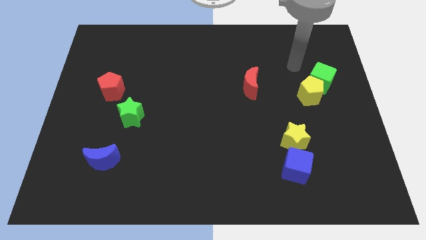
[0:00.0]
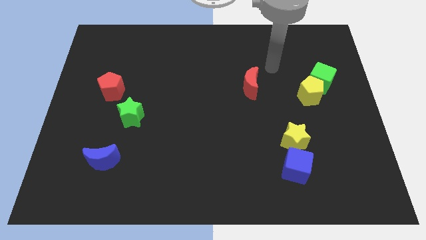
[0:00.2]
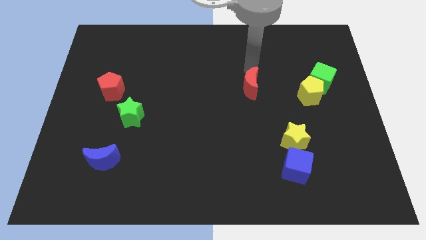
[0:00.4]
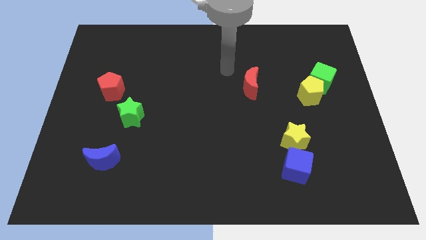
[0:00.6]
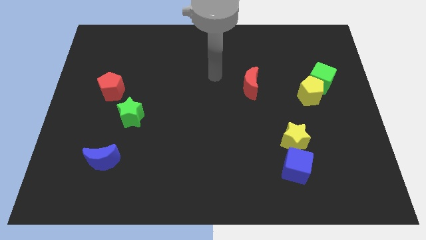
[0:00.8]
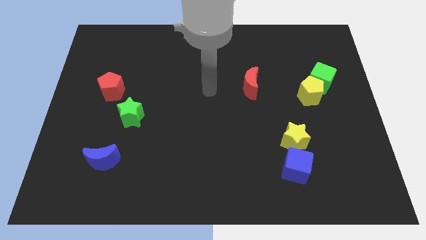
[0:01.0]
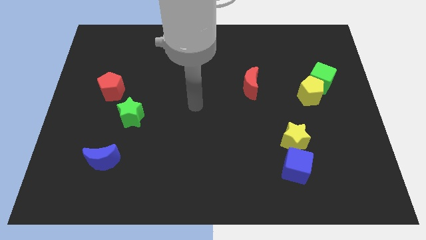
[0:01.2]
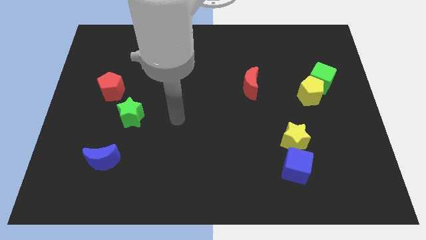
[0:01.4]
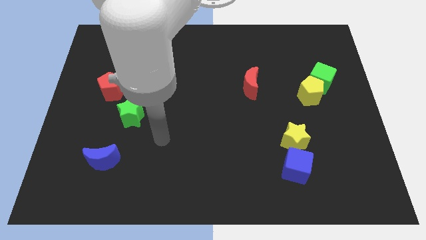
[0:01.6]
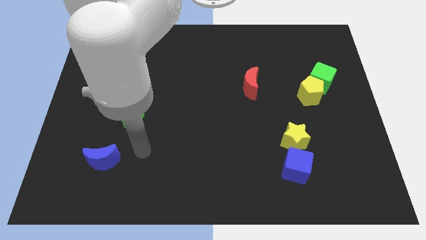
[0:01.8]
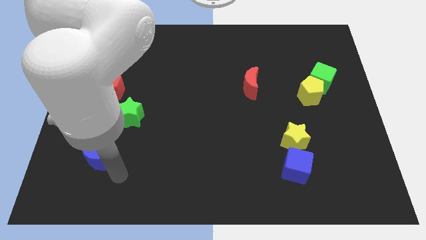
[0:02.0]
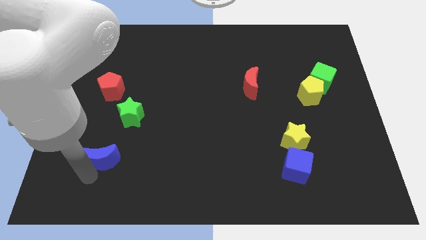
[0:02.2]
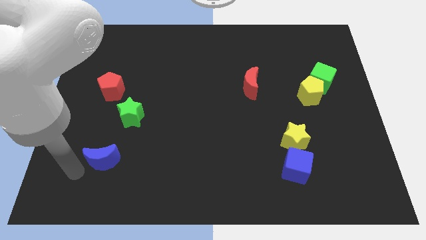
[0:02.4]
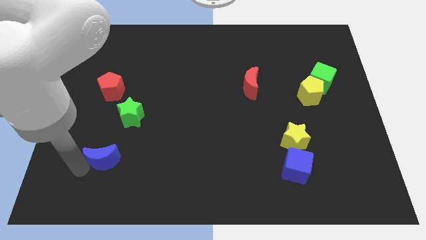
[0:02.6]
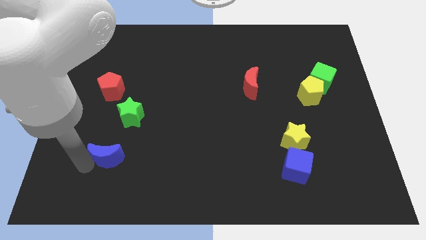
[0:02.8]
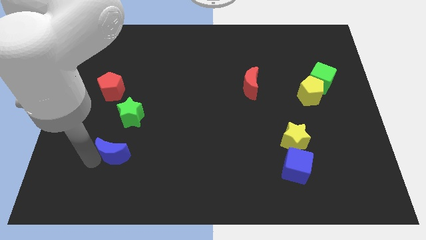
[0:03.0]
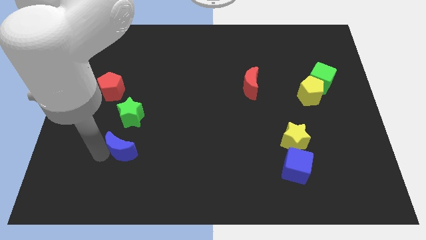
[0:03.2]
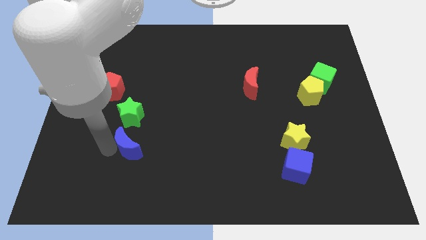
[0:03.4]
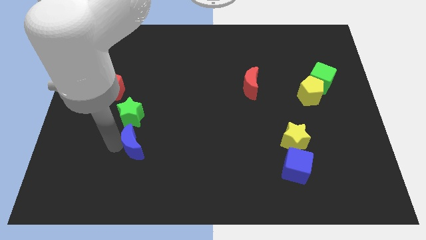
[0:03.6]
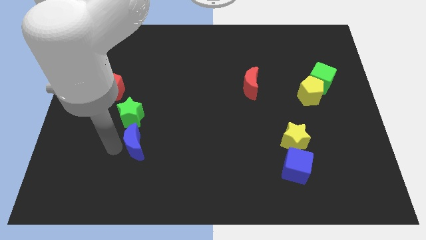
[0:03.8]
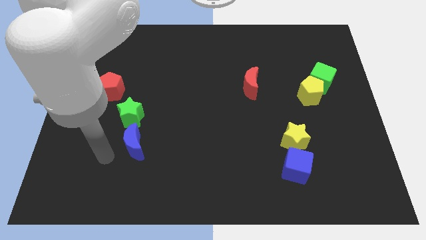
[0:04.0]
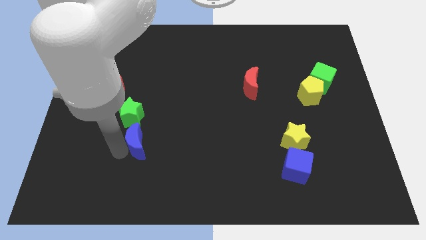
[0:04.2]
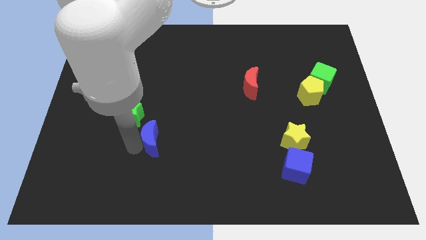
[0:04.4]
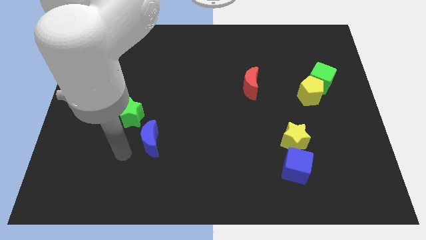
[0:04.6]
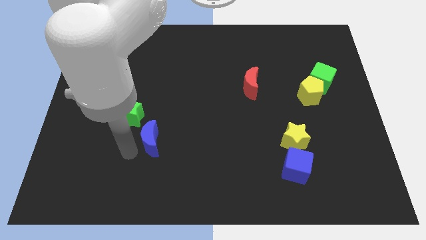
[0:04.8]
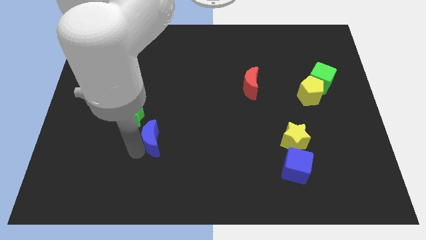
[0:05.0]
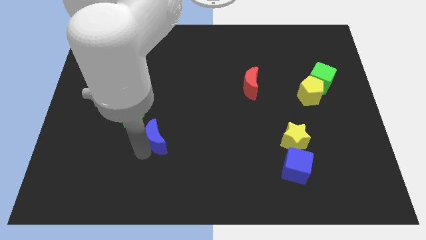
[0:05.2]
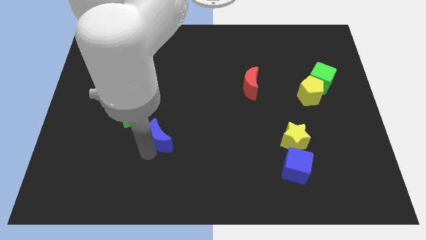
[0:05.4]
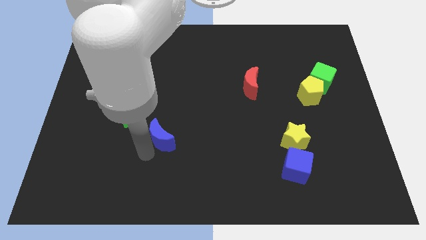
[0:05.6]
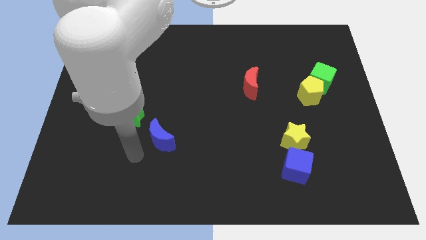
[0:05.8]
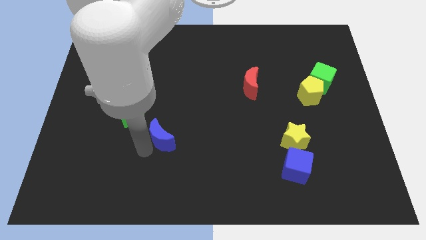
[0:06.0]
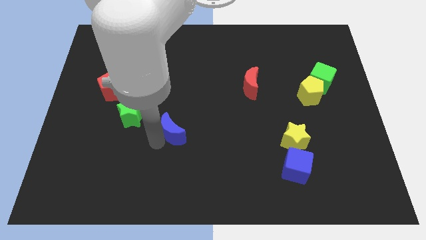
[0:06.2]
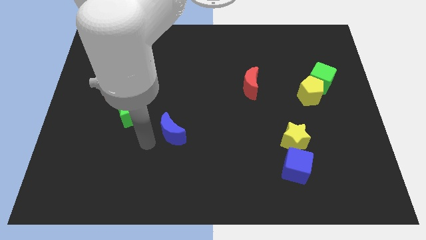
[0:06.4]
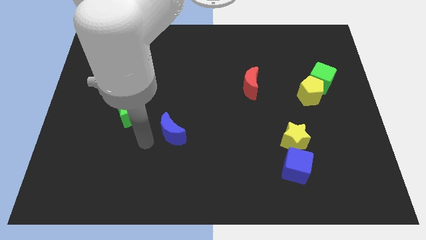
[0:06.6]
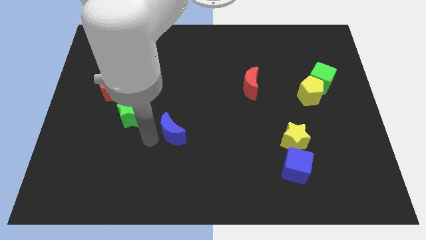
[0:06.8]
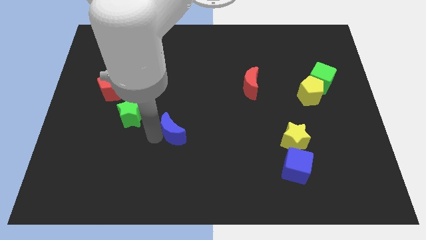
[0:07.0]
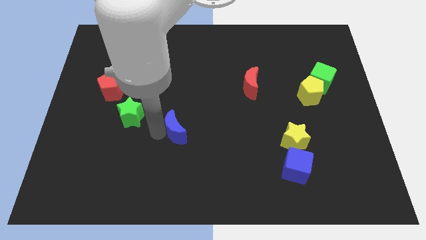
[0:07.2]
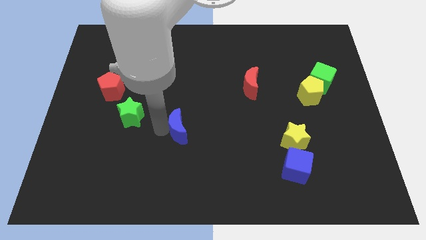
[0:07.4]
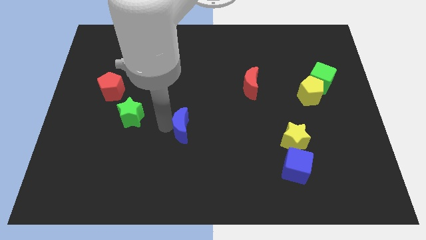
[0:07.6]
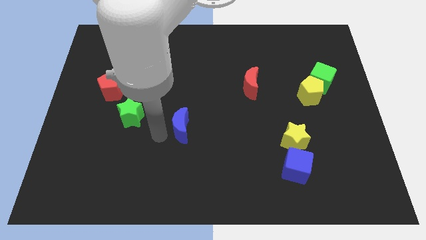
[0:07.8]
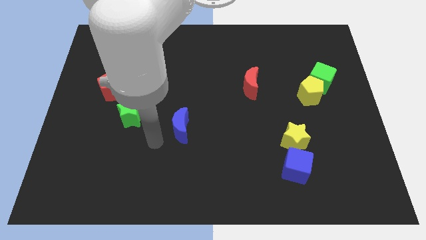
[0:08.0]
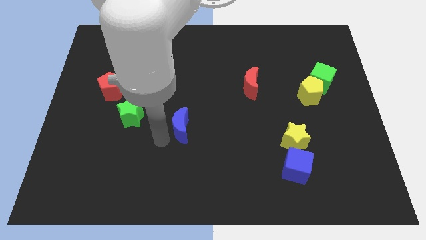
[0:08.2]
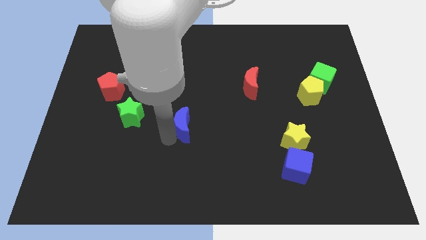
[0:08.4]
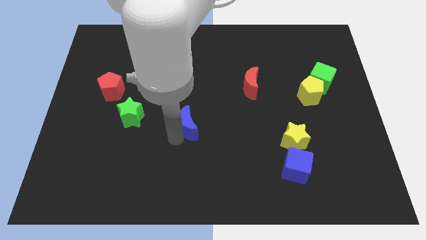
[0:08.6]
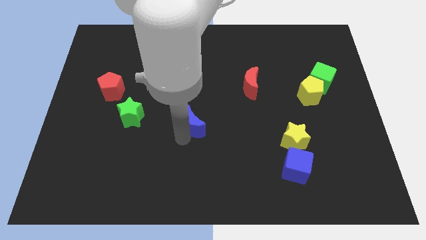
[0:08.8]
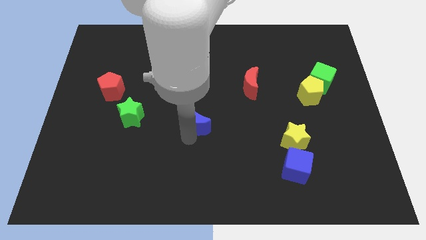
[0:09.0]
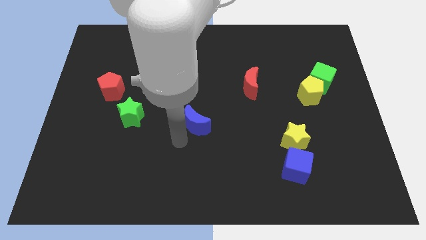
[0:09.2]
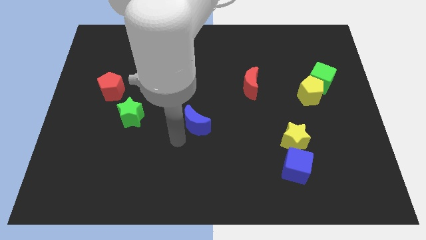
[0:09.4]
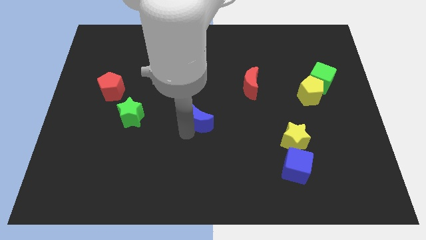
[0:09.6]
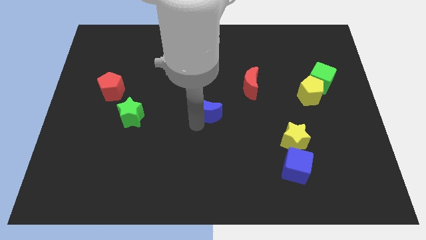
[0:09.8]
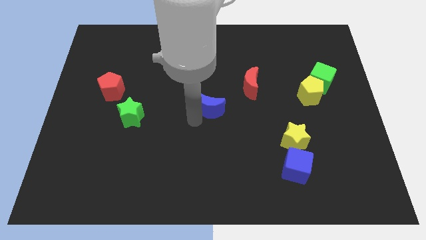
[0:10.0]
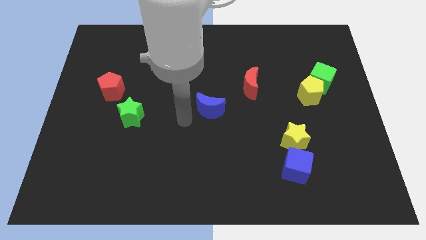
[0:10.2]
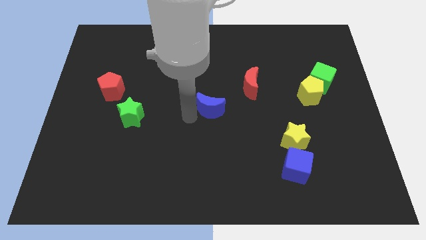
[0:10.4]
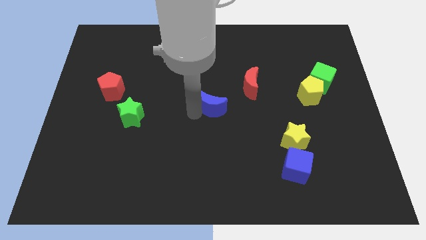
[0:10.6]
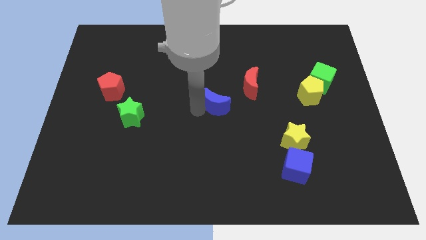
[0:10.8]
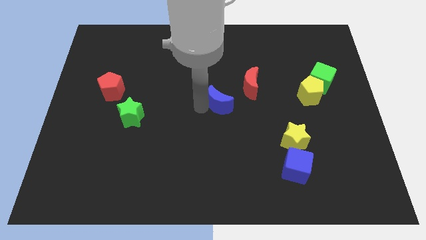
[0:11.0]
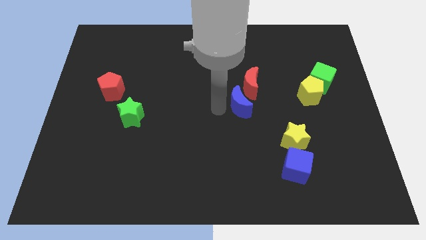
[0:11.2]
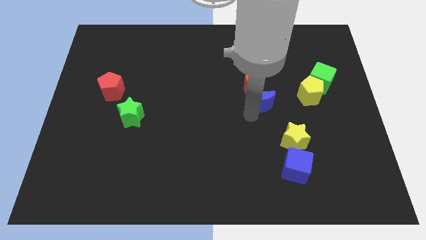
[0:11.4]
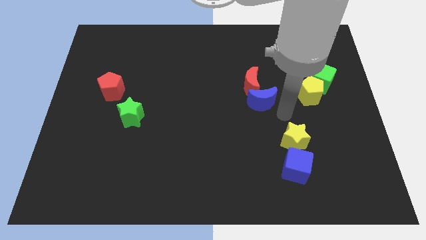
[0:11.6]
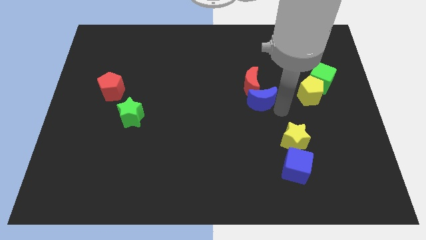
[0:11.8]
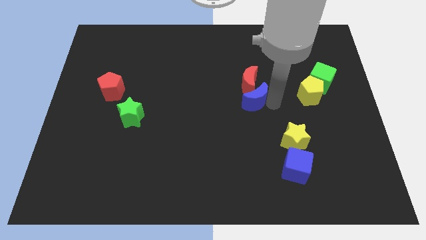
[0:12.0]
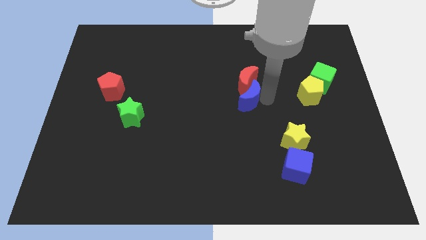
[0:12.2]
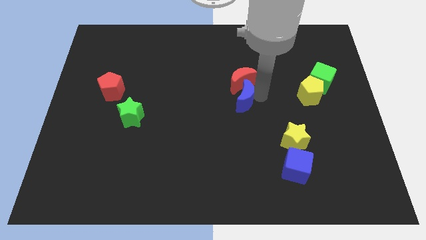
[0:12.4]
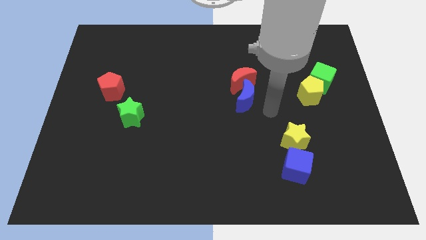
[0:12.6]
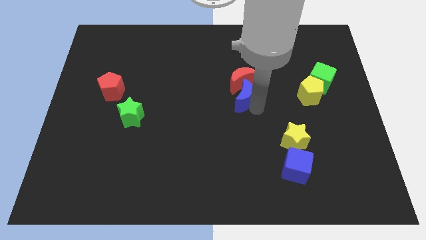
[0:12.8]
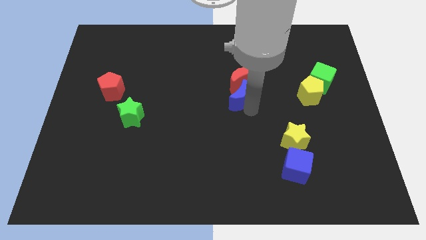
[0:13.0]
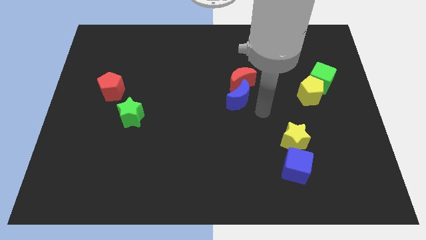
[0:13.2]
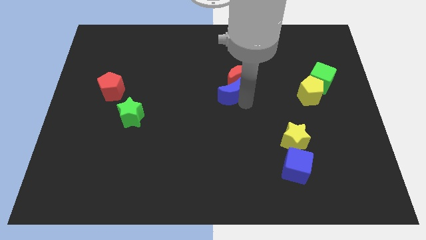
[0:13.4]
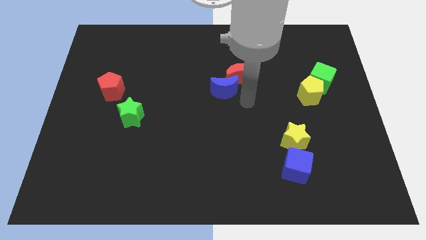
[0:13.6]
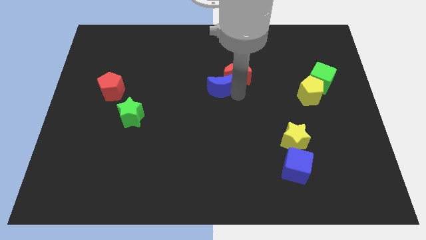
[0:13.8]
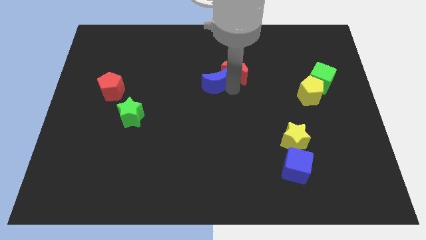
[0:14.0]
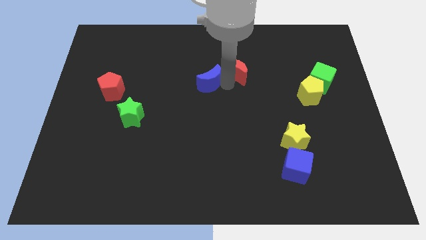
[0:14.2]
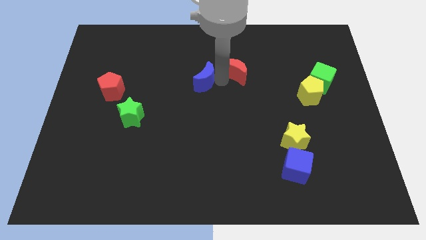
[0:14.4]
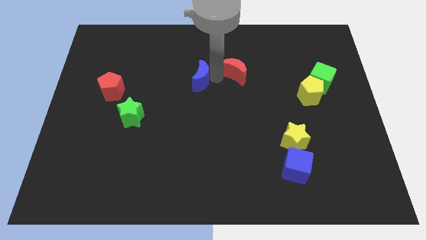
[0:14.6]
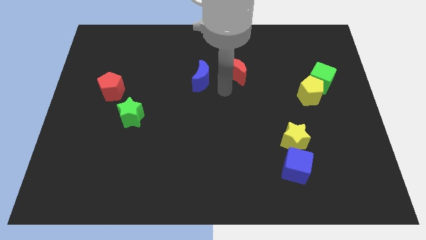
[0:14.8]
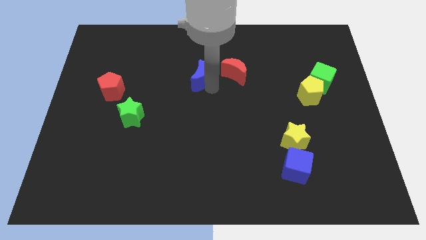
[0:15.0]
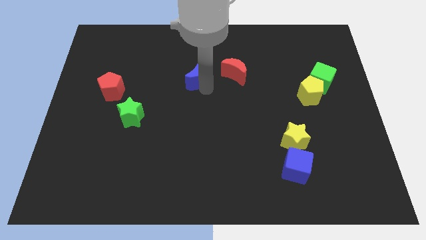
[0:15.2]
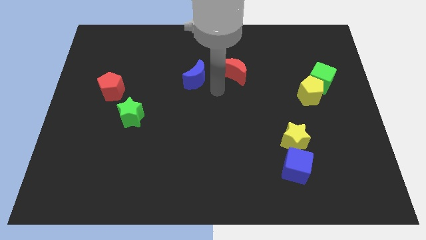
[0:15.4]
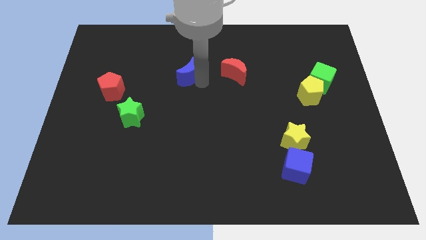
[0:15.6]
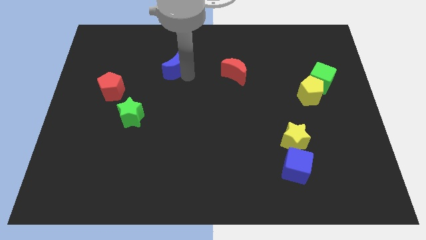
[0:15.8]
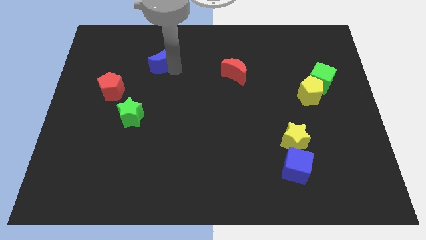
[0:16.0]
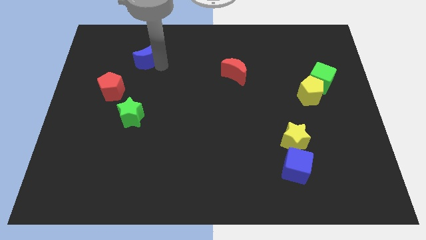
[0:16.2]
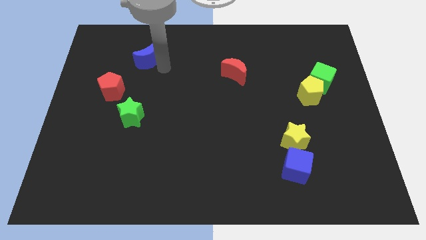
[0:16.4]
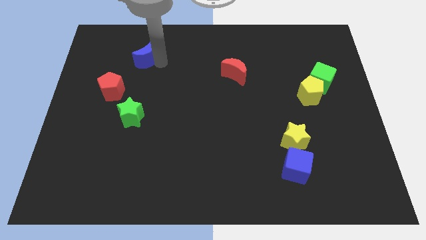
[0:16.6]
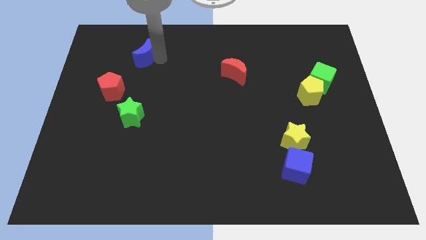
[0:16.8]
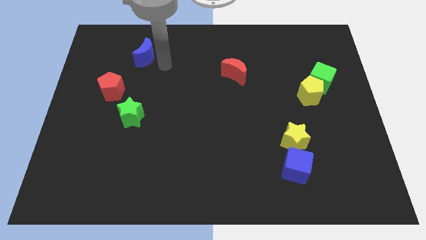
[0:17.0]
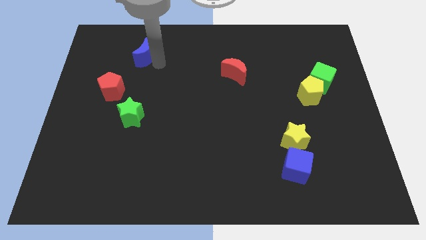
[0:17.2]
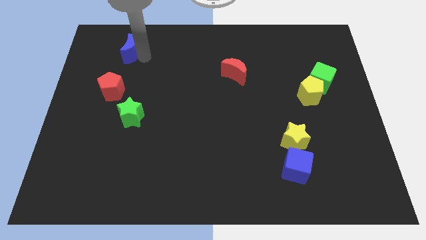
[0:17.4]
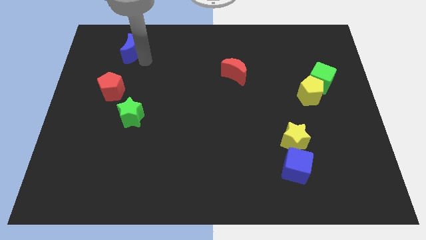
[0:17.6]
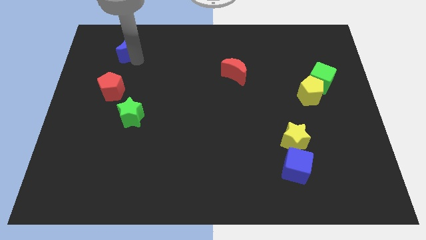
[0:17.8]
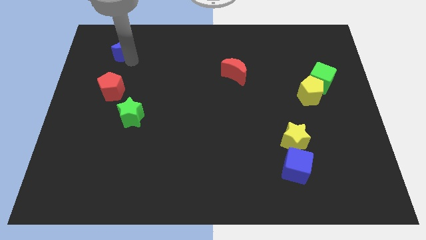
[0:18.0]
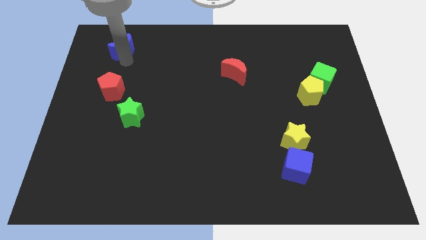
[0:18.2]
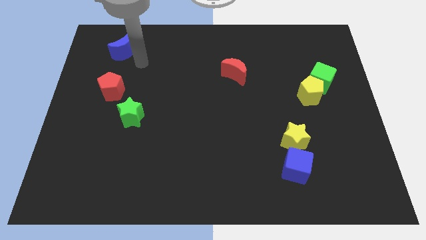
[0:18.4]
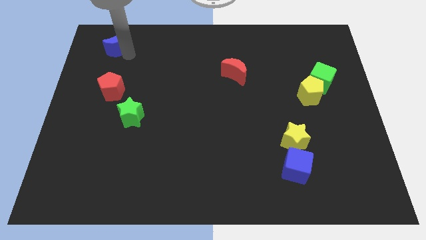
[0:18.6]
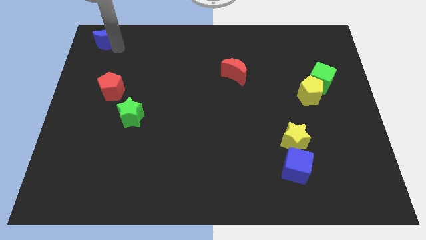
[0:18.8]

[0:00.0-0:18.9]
put the blue moon to the top left corner
